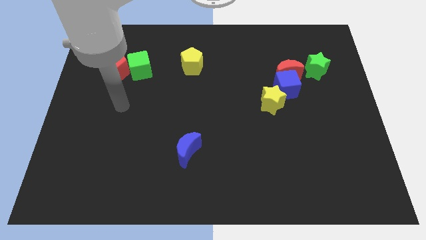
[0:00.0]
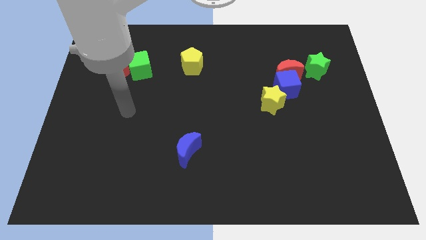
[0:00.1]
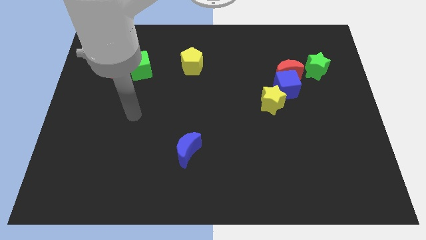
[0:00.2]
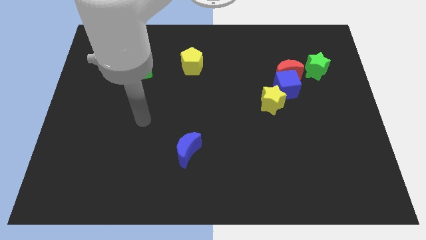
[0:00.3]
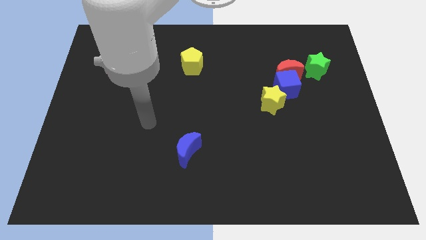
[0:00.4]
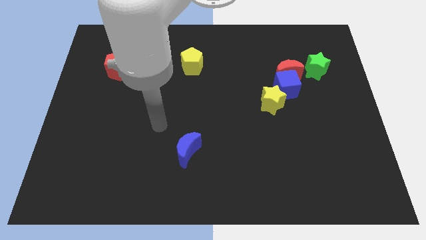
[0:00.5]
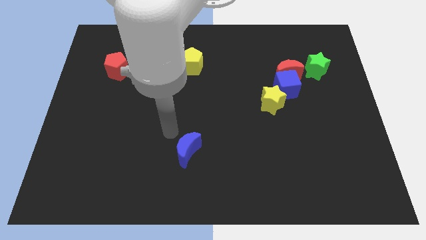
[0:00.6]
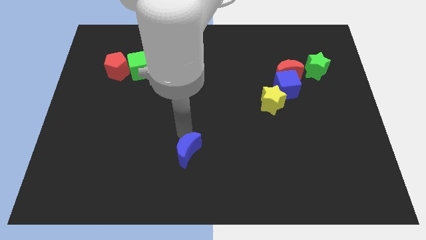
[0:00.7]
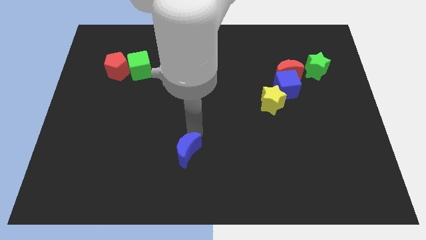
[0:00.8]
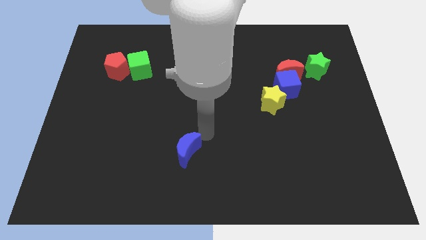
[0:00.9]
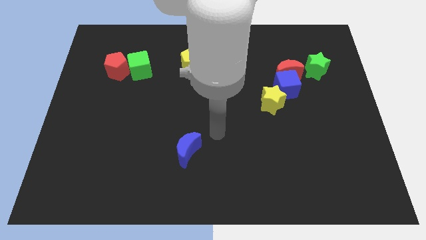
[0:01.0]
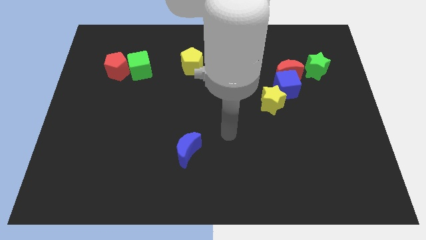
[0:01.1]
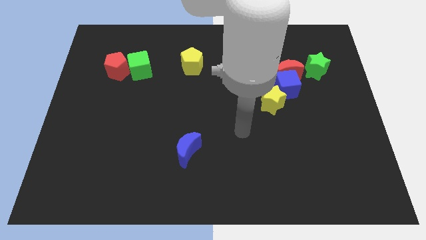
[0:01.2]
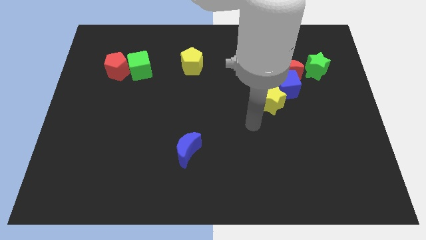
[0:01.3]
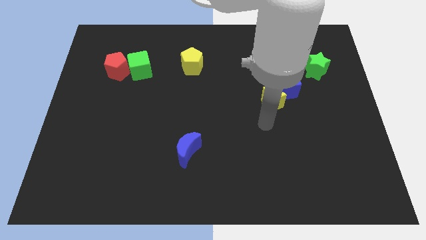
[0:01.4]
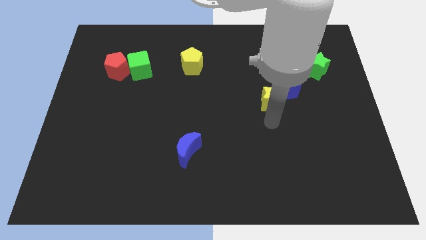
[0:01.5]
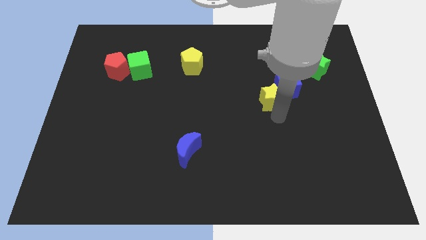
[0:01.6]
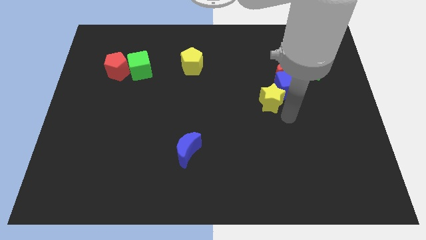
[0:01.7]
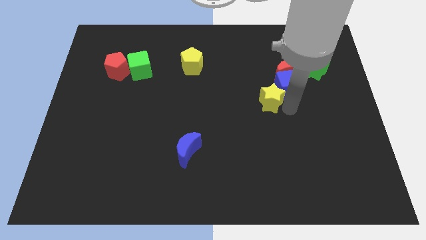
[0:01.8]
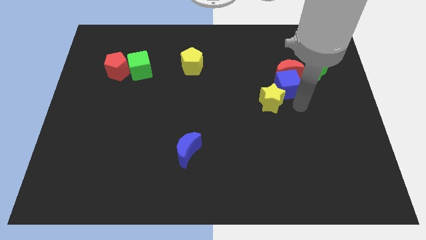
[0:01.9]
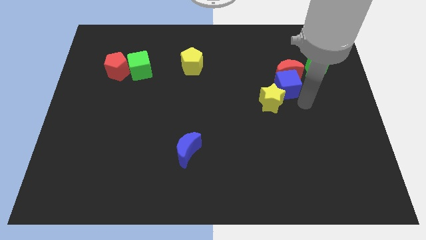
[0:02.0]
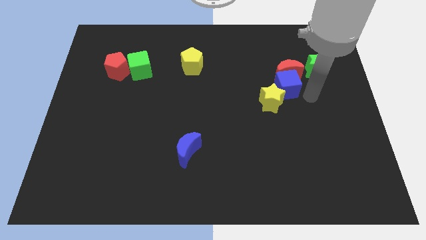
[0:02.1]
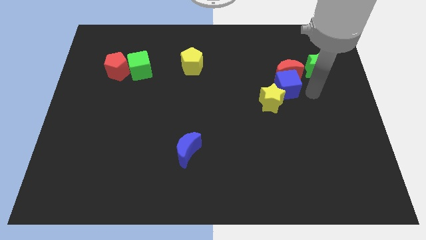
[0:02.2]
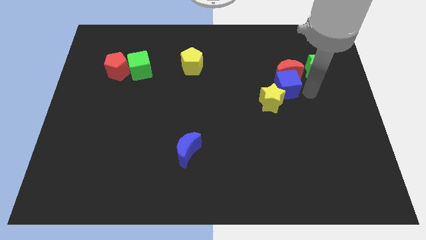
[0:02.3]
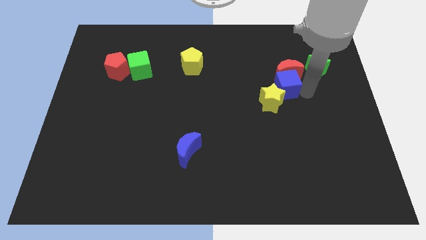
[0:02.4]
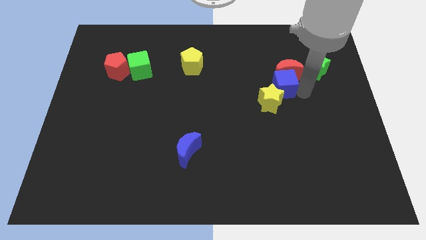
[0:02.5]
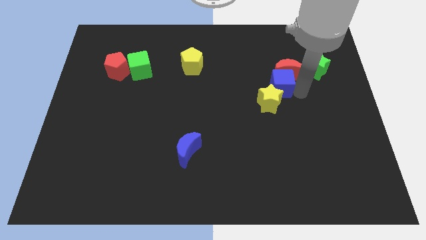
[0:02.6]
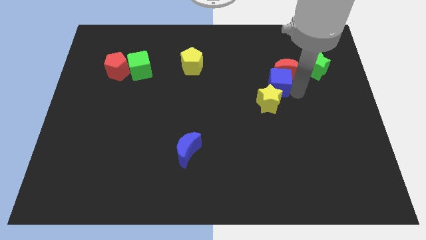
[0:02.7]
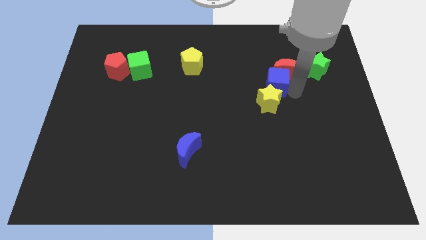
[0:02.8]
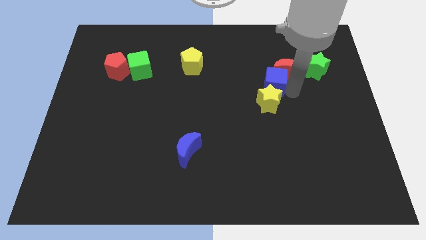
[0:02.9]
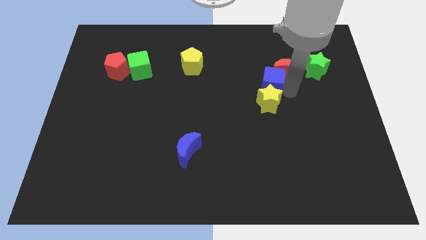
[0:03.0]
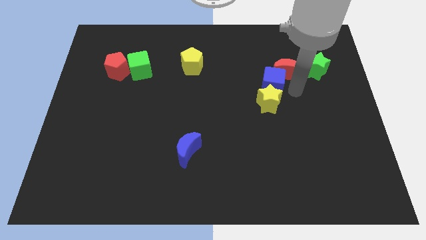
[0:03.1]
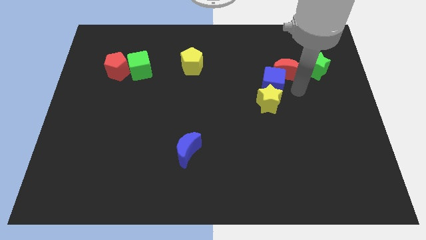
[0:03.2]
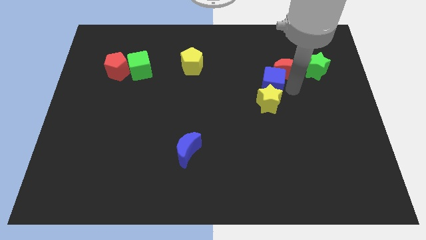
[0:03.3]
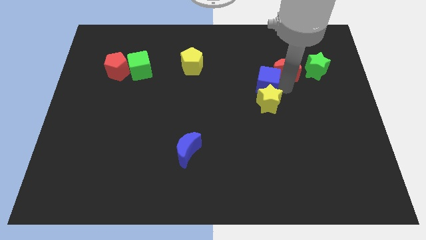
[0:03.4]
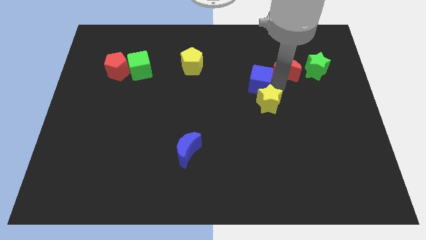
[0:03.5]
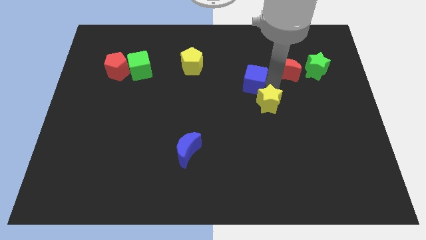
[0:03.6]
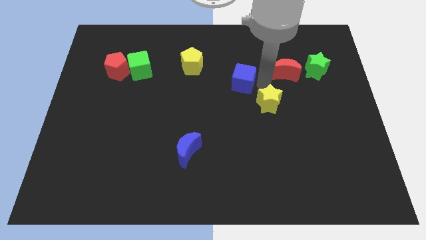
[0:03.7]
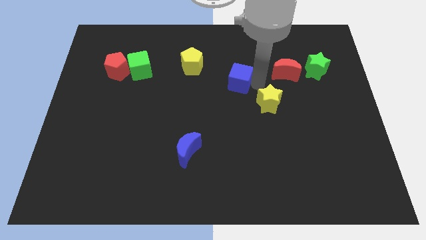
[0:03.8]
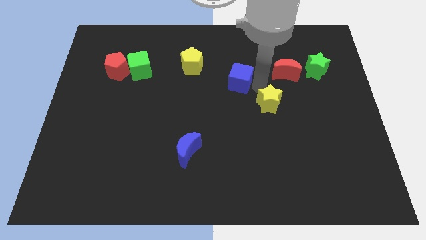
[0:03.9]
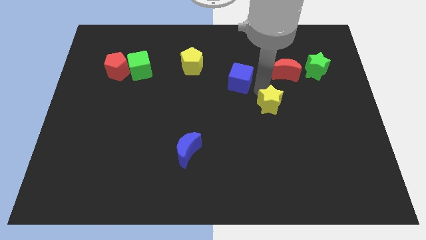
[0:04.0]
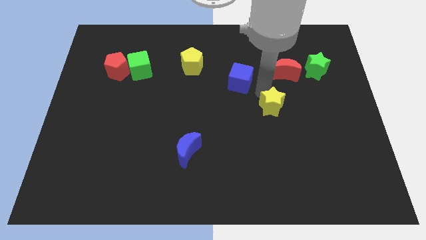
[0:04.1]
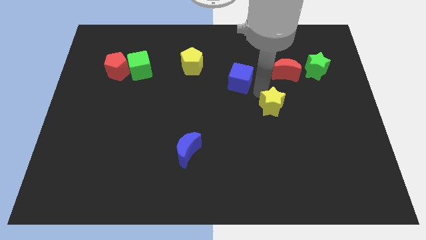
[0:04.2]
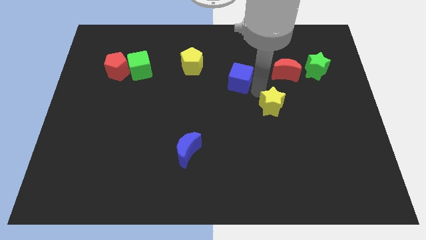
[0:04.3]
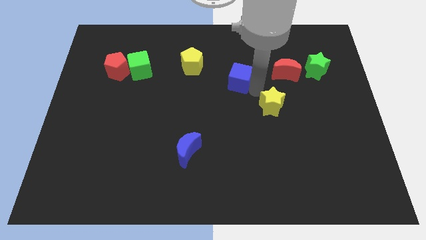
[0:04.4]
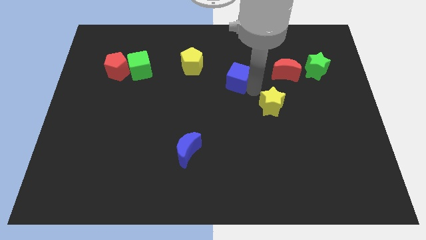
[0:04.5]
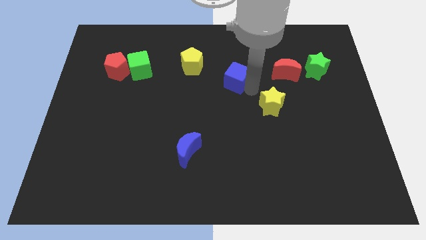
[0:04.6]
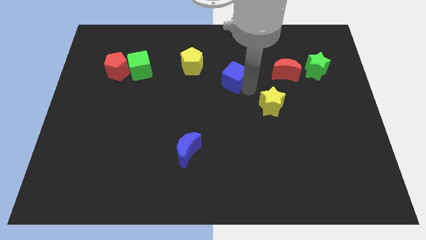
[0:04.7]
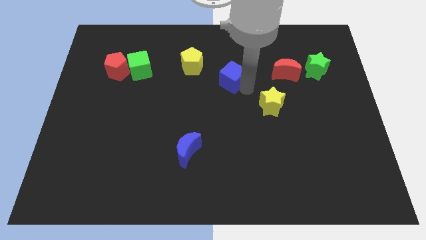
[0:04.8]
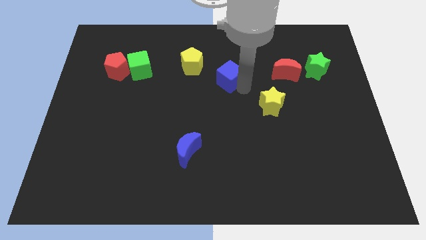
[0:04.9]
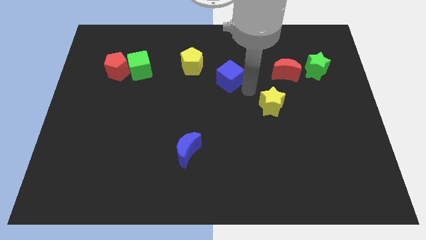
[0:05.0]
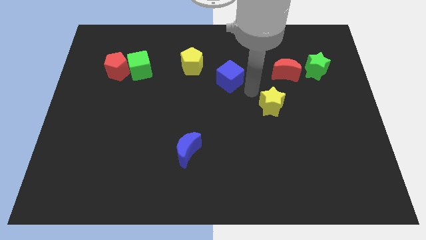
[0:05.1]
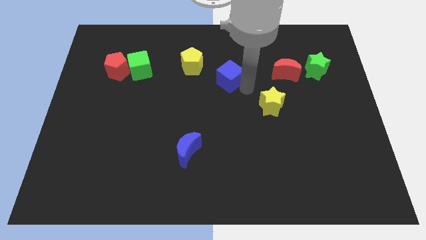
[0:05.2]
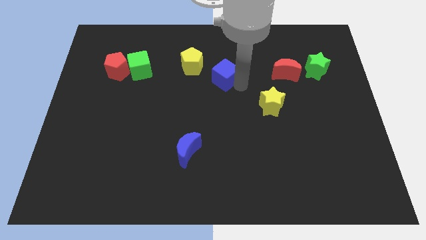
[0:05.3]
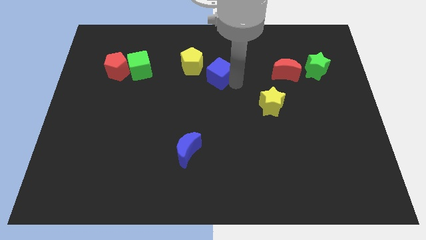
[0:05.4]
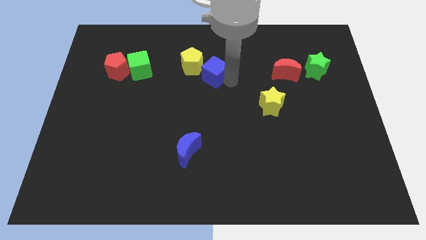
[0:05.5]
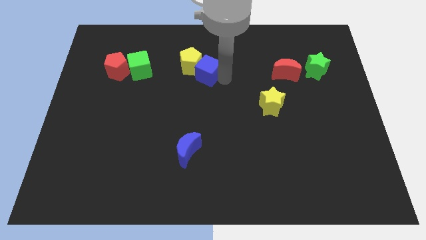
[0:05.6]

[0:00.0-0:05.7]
put the blue cube close to the yellow pentagon

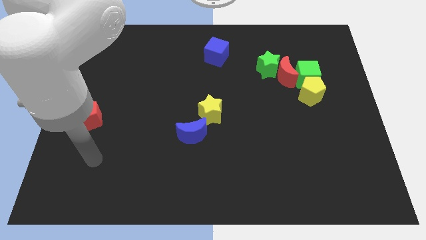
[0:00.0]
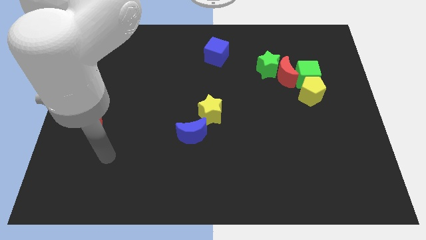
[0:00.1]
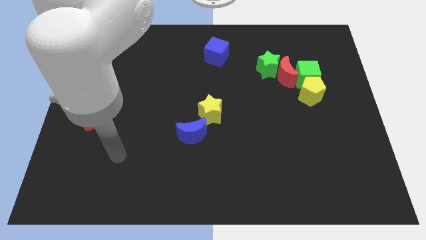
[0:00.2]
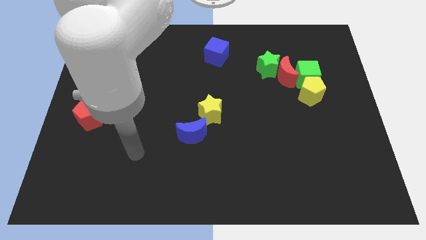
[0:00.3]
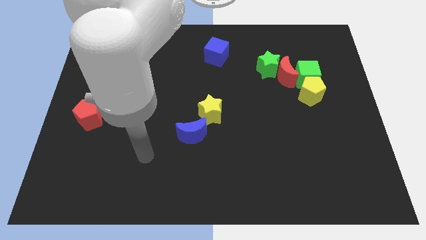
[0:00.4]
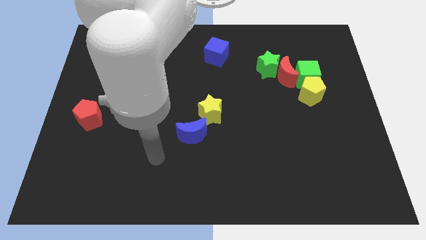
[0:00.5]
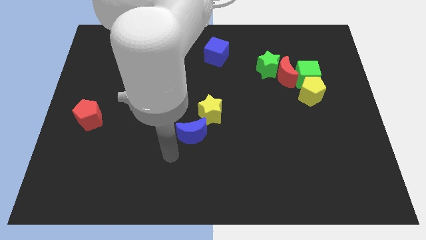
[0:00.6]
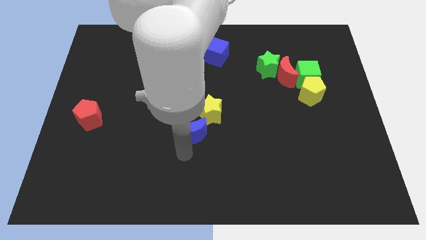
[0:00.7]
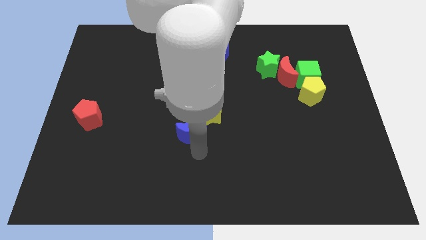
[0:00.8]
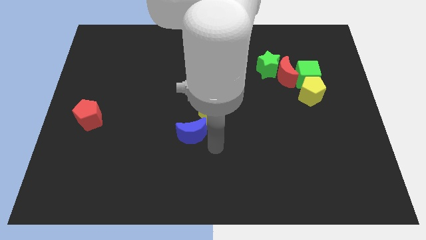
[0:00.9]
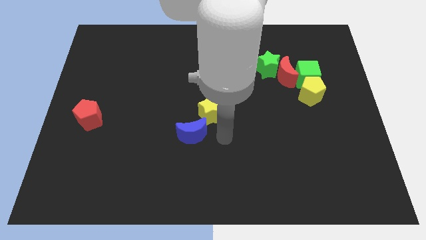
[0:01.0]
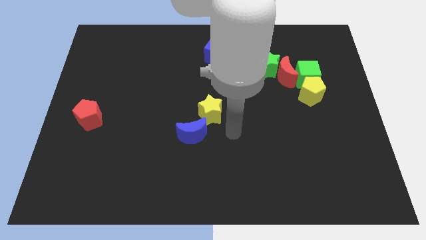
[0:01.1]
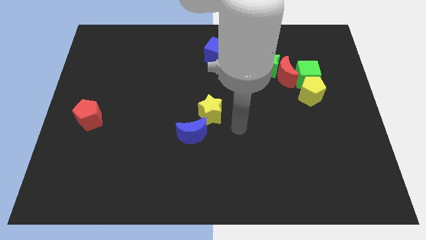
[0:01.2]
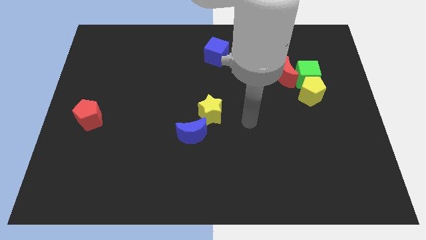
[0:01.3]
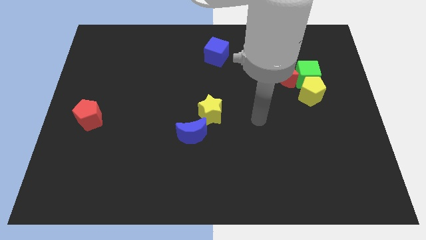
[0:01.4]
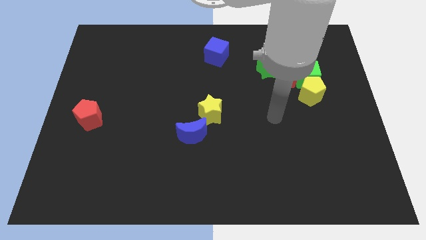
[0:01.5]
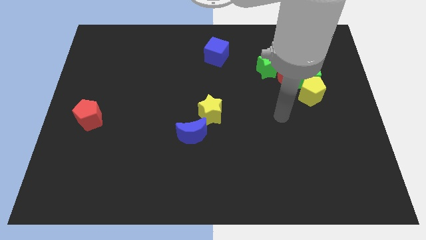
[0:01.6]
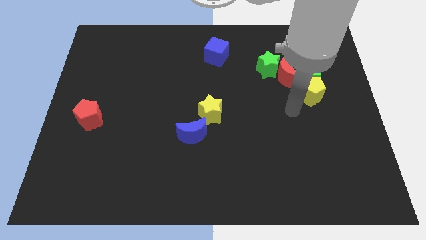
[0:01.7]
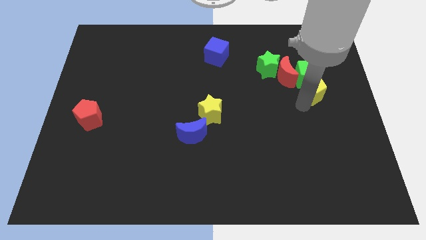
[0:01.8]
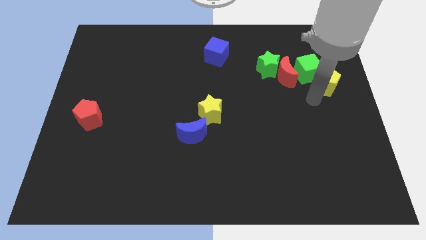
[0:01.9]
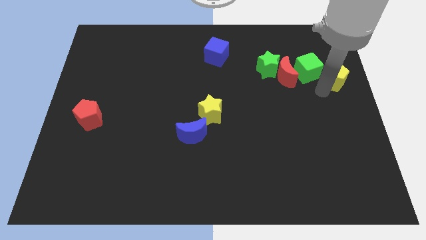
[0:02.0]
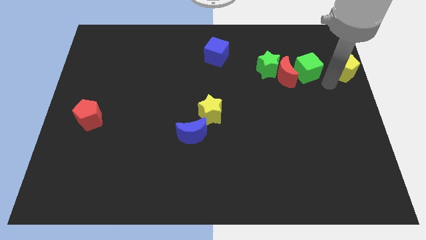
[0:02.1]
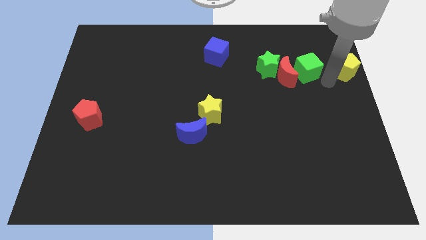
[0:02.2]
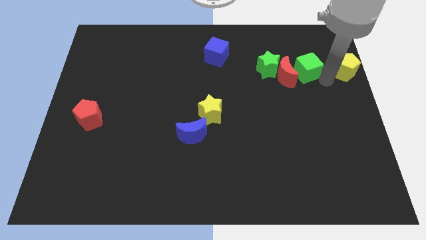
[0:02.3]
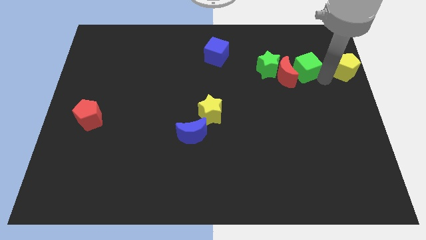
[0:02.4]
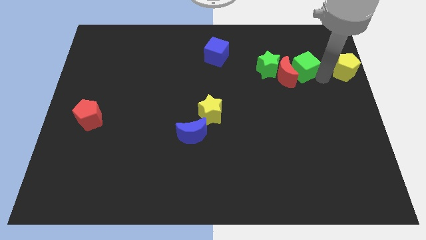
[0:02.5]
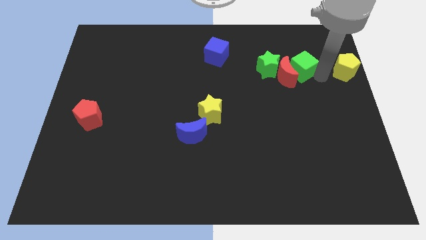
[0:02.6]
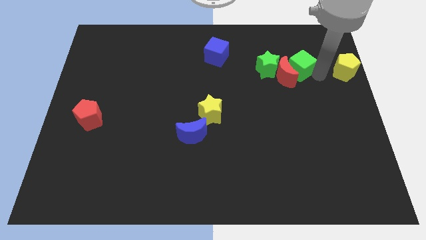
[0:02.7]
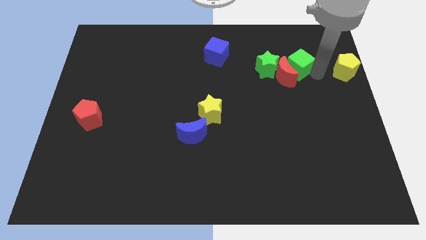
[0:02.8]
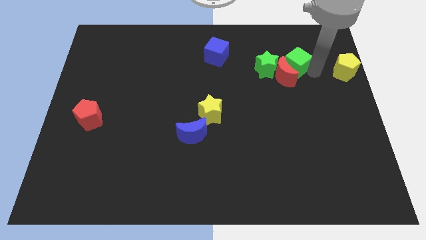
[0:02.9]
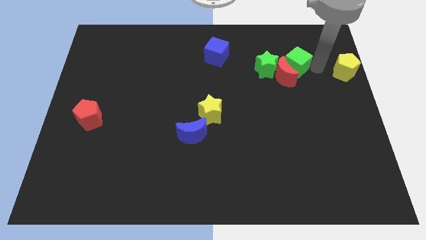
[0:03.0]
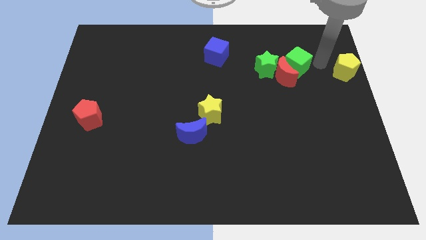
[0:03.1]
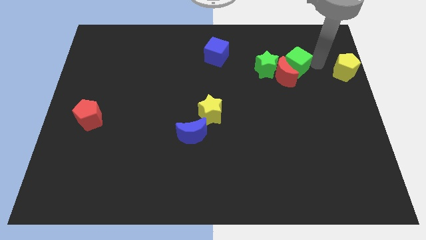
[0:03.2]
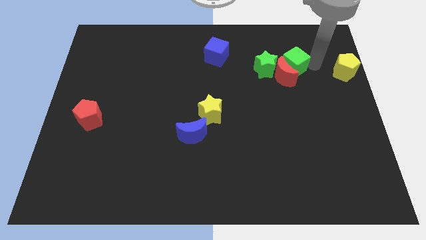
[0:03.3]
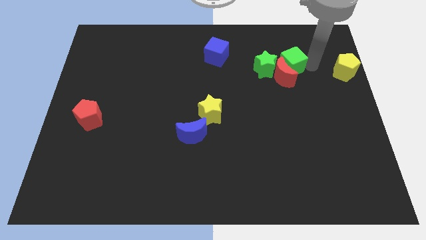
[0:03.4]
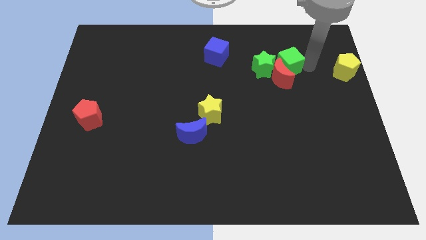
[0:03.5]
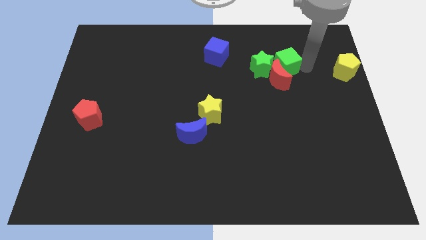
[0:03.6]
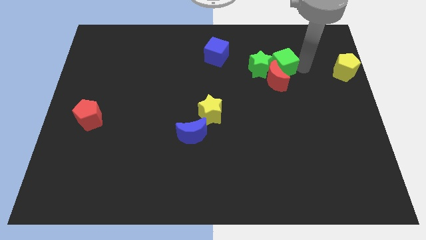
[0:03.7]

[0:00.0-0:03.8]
move the green cube next to the green star
